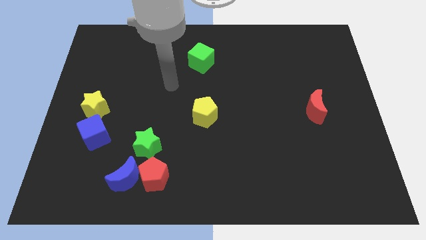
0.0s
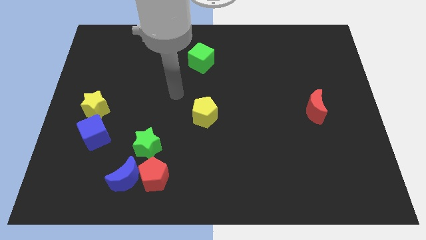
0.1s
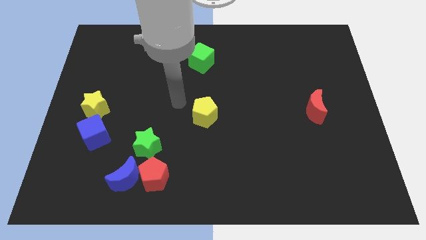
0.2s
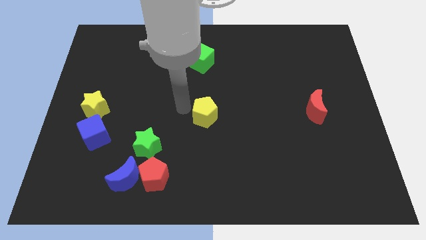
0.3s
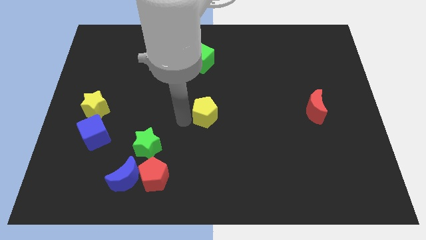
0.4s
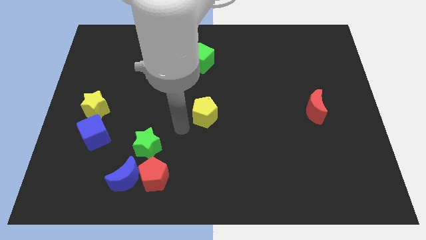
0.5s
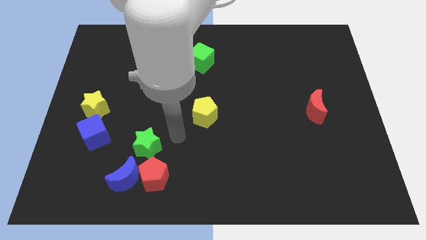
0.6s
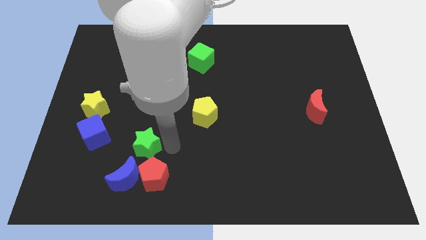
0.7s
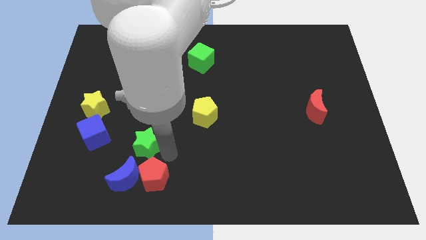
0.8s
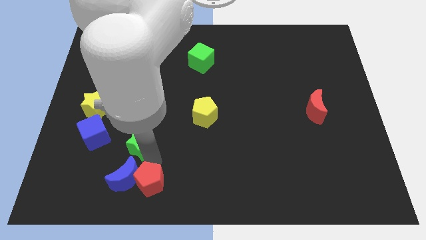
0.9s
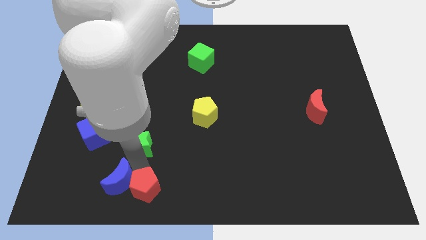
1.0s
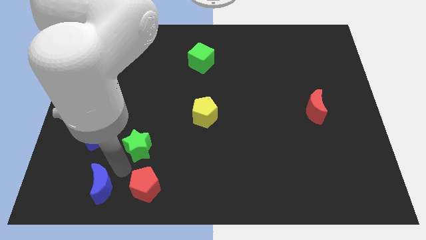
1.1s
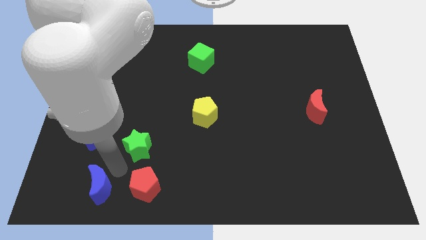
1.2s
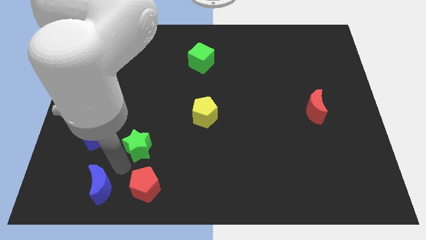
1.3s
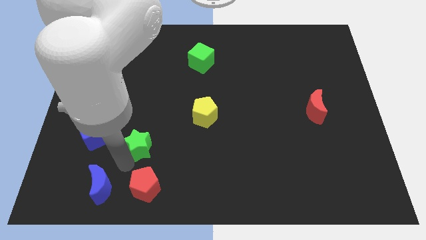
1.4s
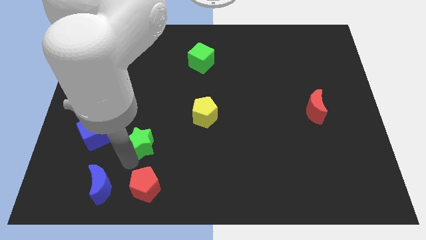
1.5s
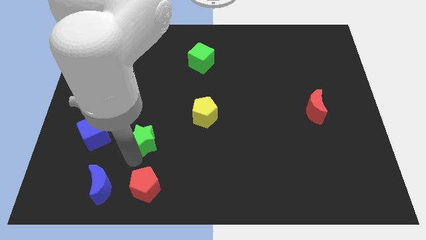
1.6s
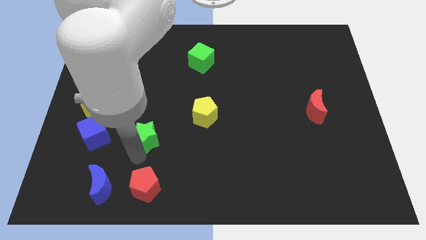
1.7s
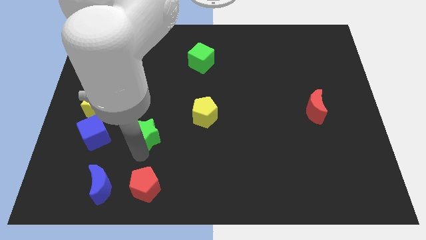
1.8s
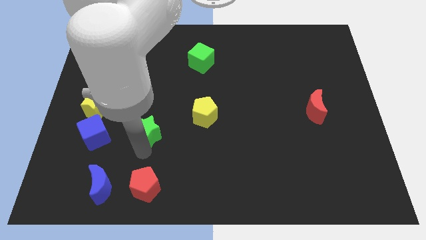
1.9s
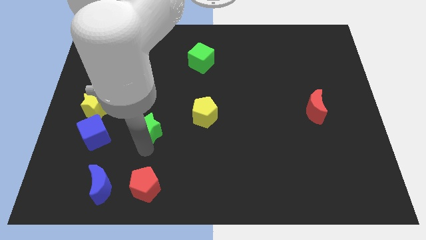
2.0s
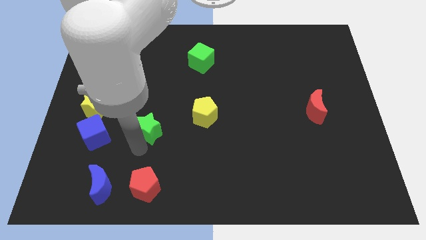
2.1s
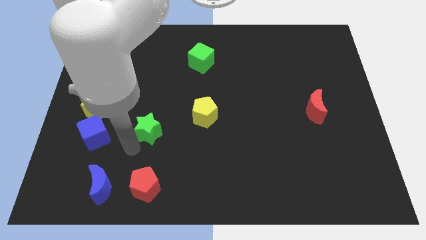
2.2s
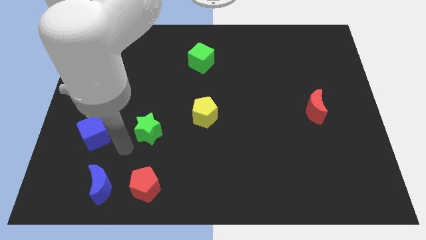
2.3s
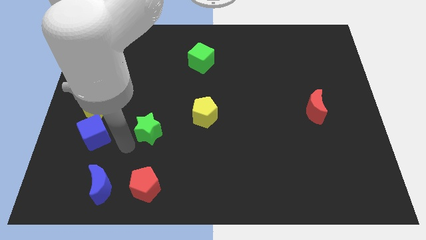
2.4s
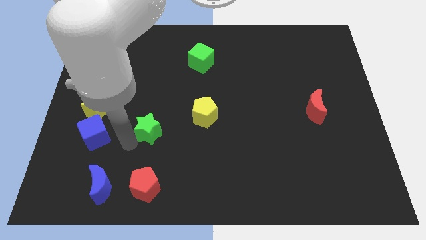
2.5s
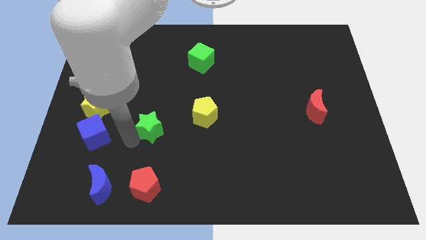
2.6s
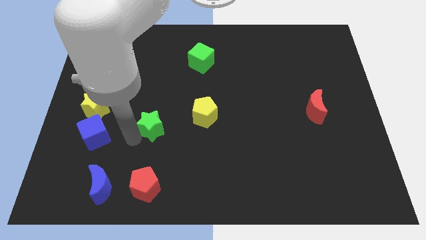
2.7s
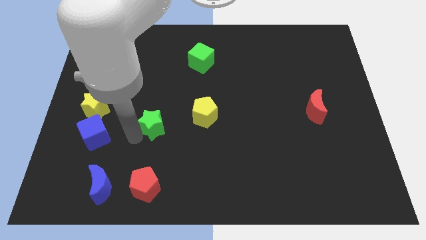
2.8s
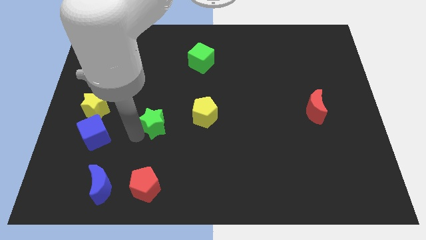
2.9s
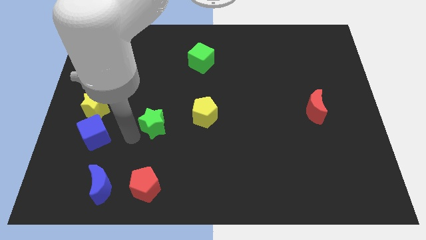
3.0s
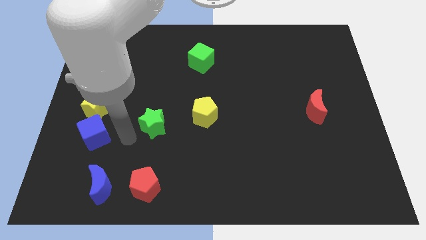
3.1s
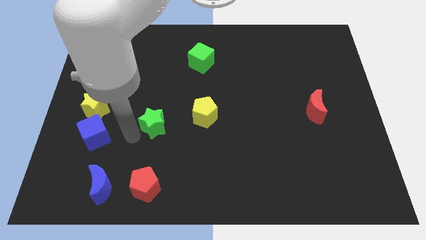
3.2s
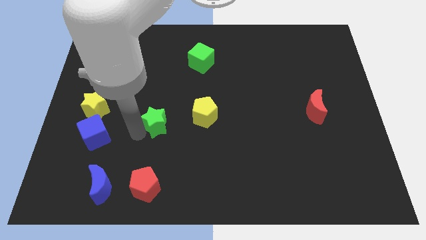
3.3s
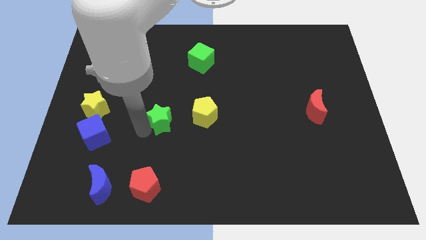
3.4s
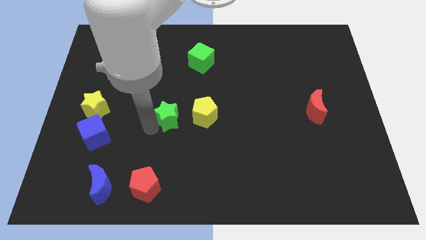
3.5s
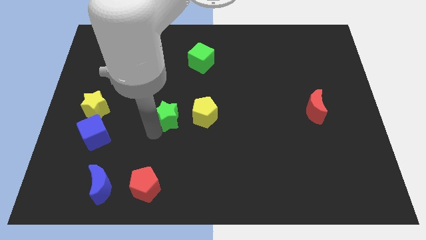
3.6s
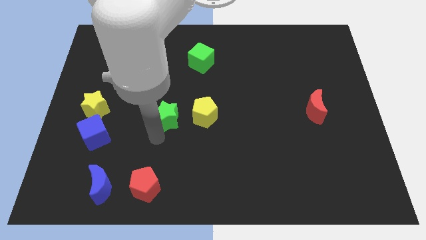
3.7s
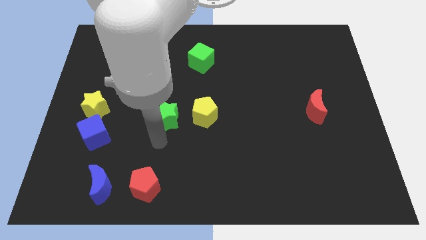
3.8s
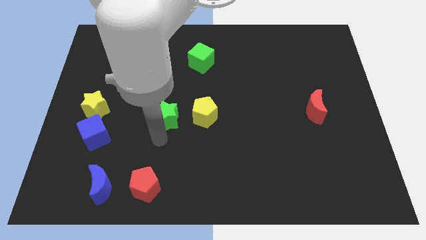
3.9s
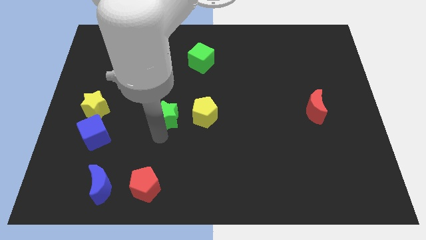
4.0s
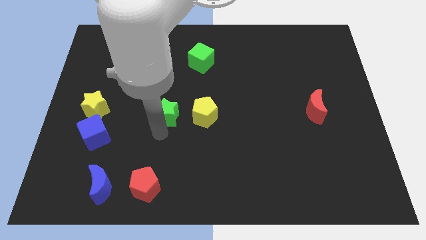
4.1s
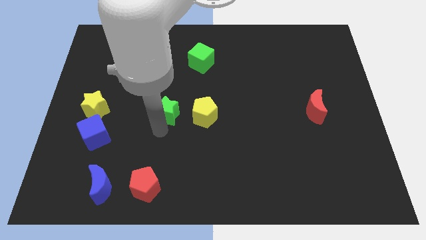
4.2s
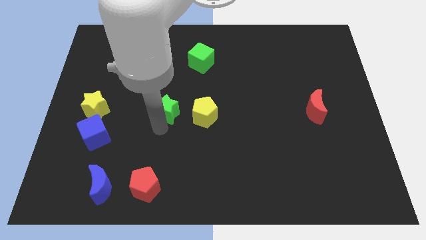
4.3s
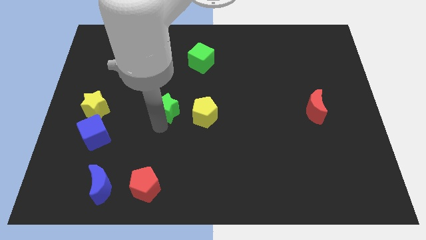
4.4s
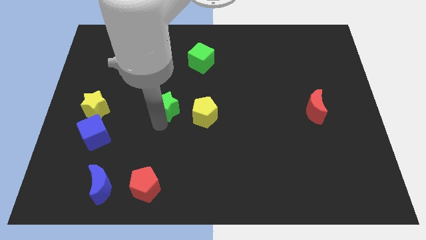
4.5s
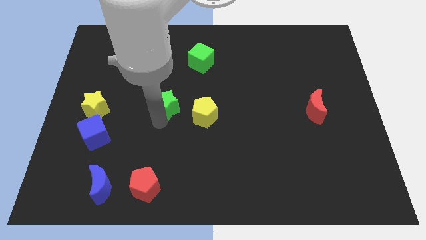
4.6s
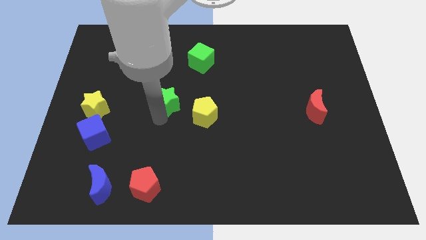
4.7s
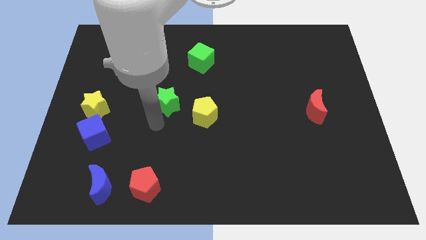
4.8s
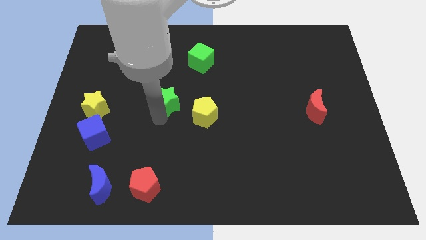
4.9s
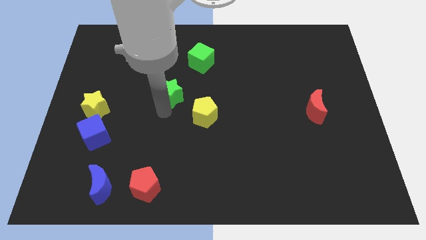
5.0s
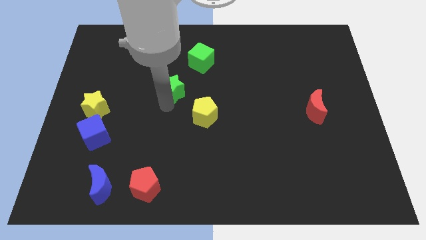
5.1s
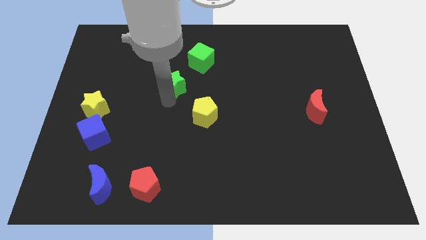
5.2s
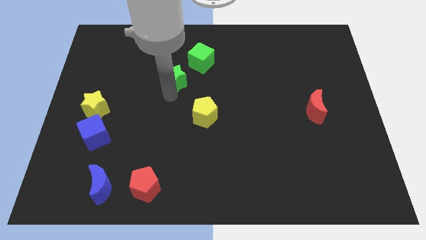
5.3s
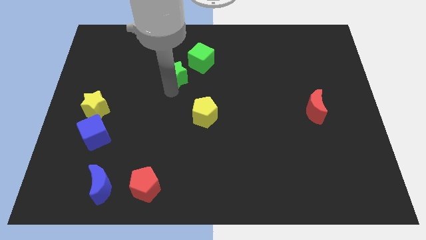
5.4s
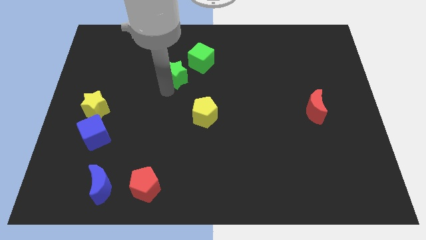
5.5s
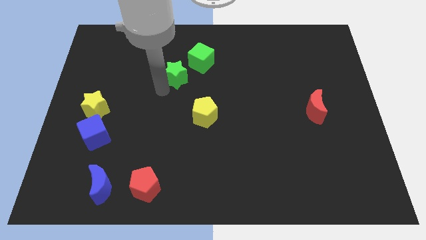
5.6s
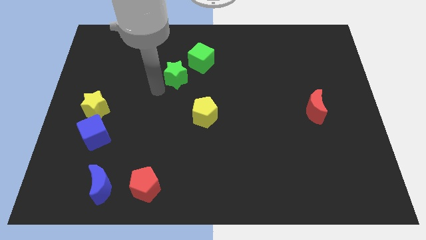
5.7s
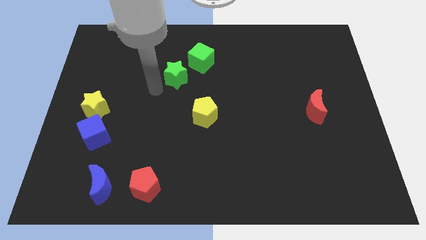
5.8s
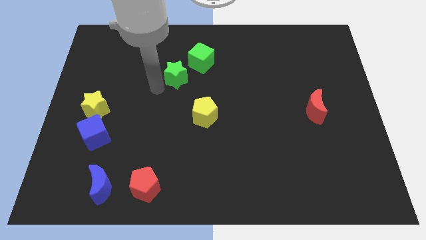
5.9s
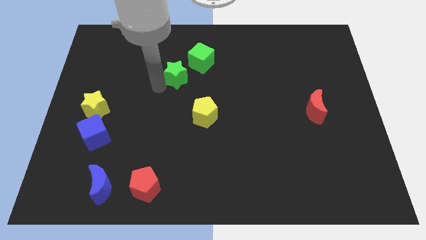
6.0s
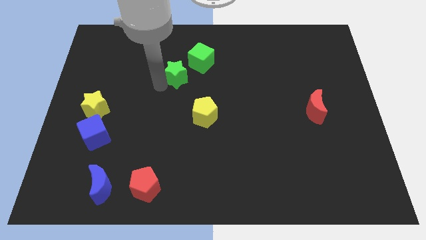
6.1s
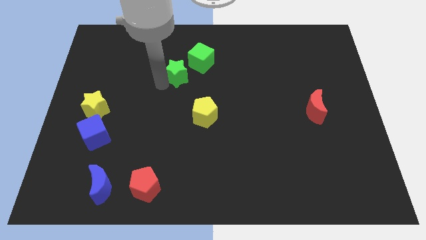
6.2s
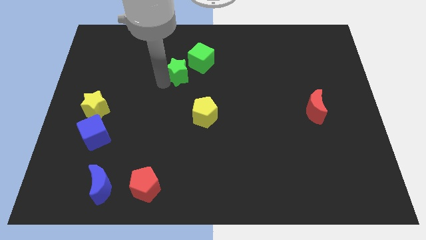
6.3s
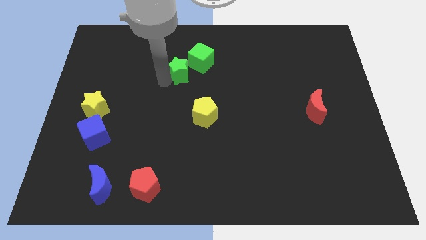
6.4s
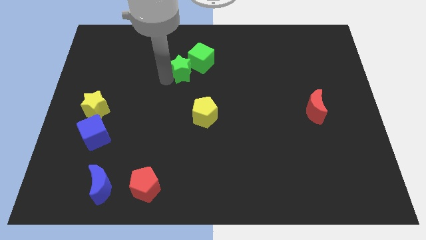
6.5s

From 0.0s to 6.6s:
move the green star close to the green cube

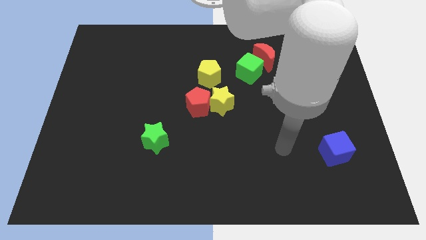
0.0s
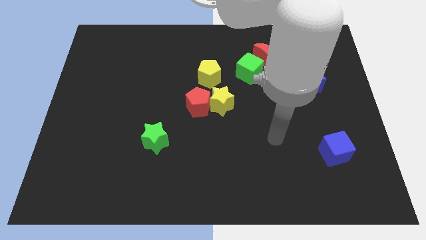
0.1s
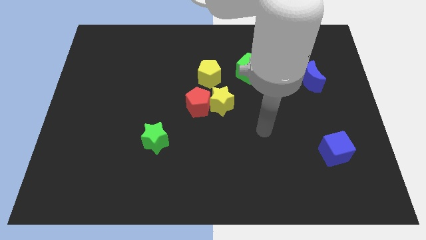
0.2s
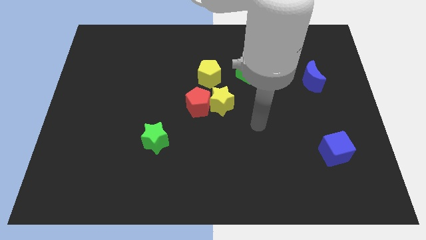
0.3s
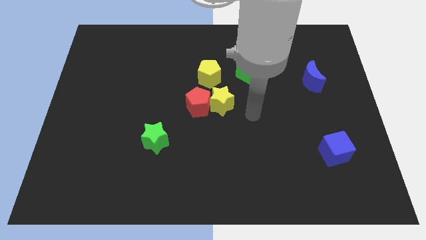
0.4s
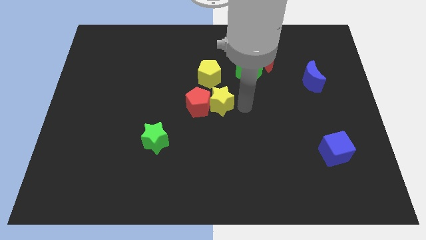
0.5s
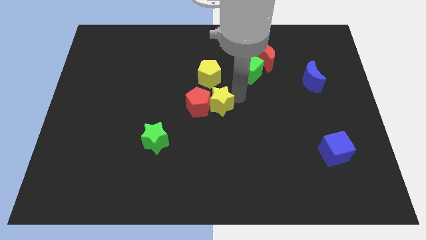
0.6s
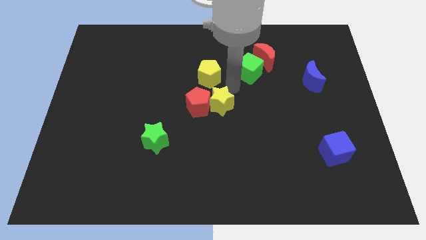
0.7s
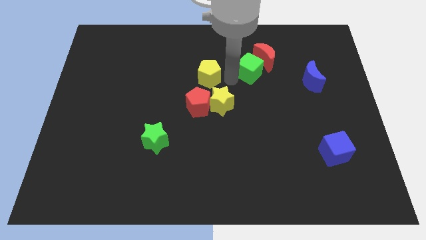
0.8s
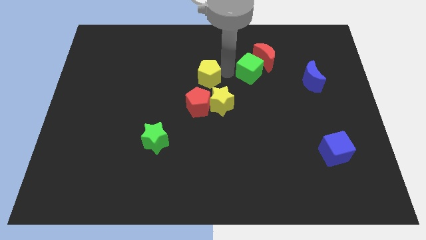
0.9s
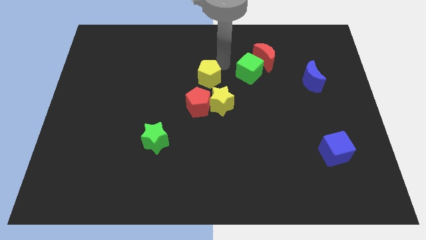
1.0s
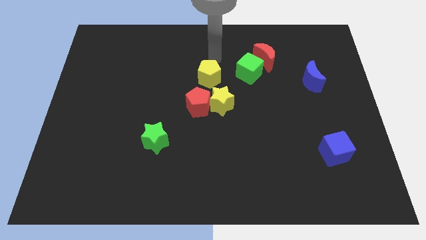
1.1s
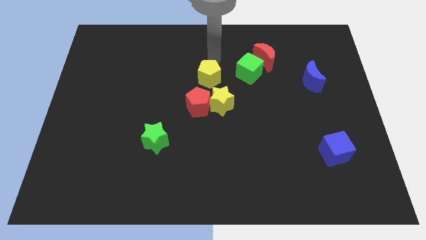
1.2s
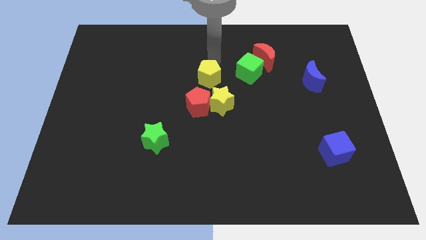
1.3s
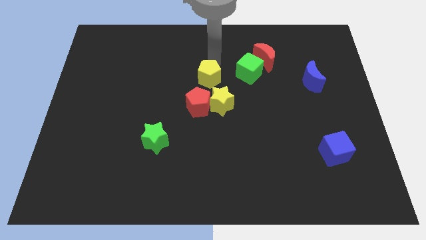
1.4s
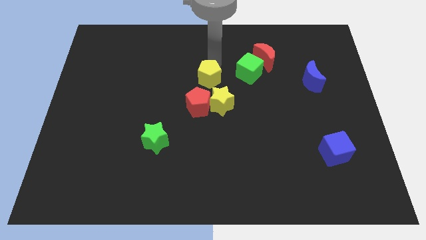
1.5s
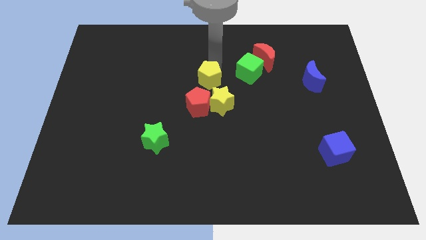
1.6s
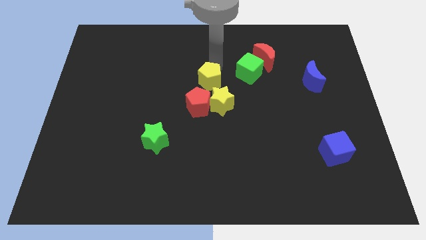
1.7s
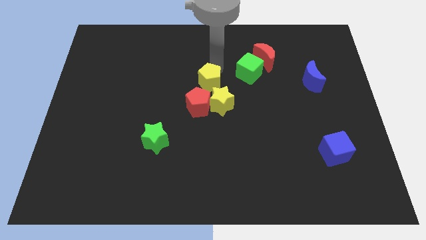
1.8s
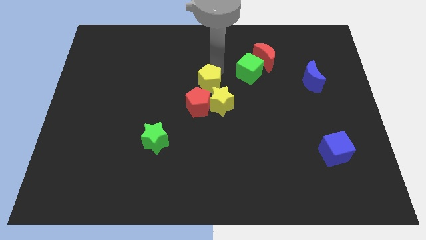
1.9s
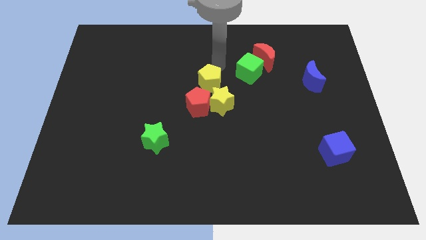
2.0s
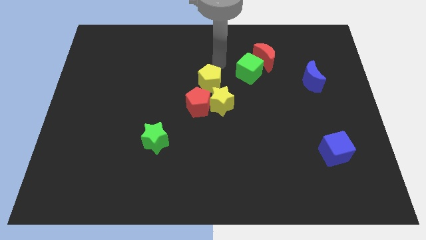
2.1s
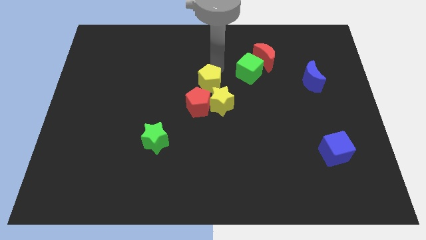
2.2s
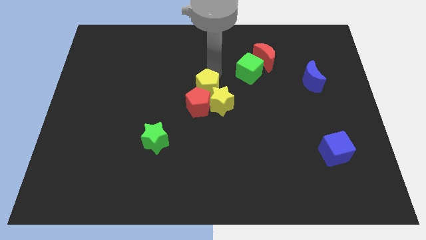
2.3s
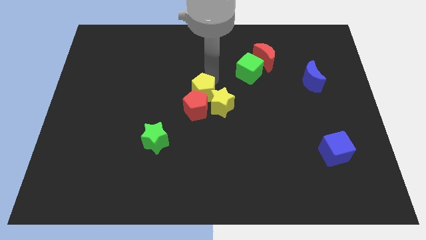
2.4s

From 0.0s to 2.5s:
move the yellow pentagon next to the red pentagon
